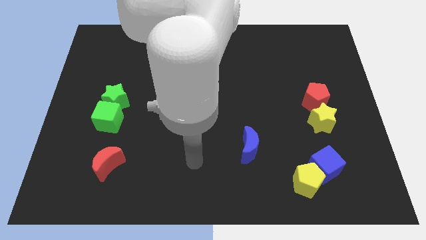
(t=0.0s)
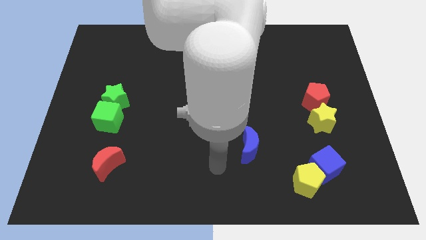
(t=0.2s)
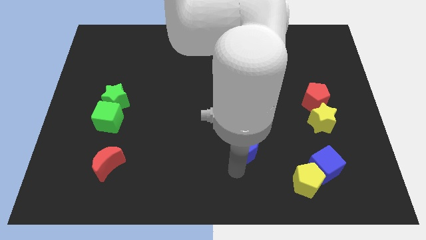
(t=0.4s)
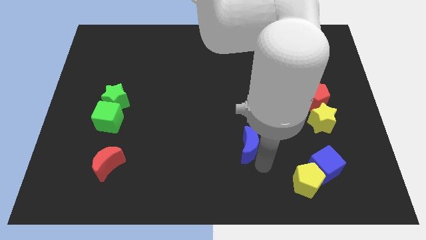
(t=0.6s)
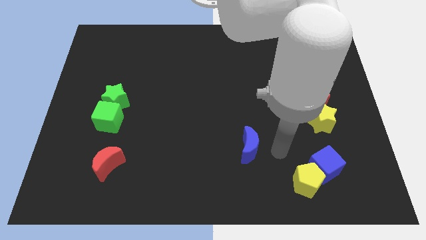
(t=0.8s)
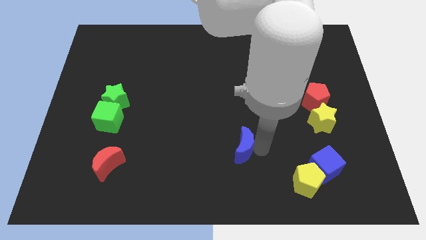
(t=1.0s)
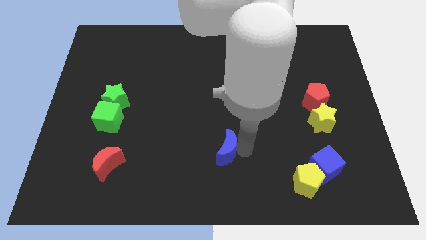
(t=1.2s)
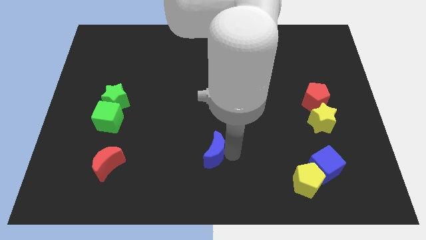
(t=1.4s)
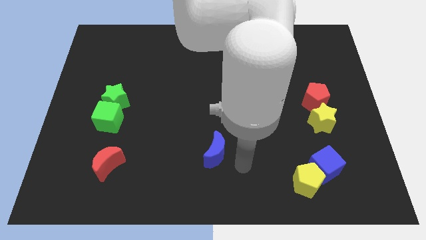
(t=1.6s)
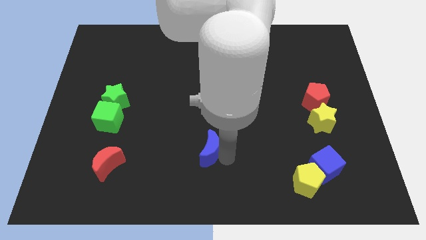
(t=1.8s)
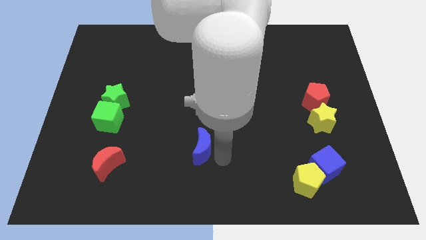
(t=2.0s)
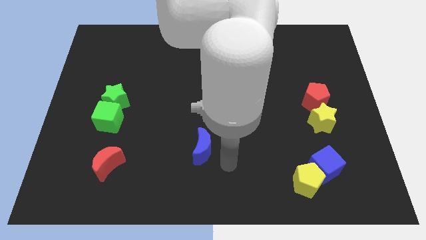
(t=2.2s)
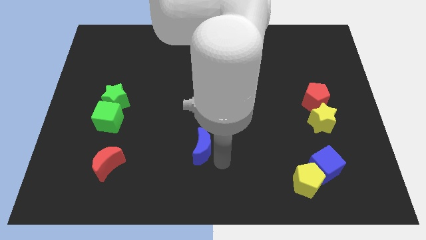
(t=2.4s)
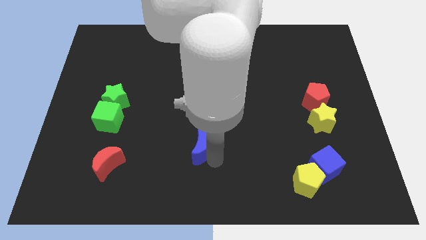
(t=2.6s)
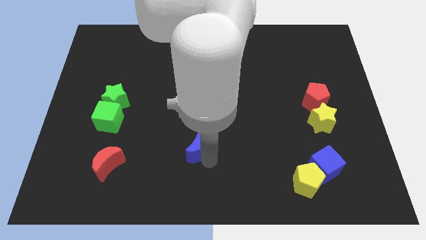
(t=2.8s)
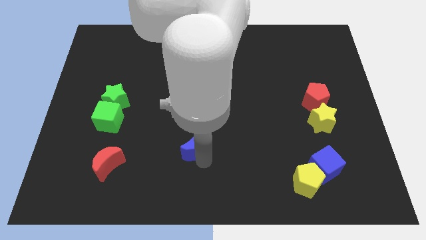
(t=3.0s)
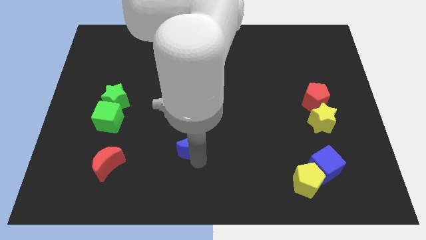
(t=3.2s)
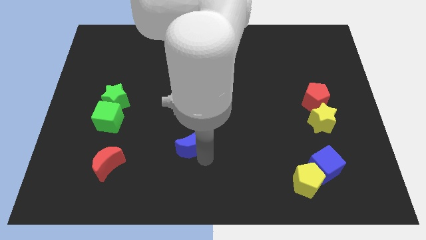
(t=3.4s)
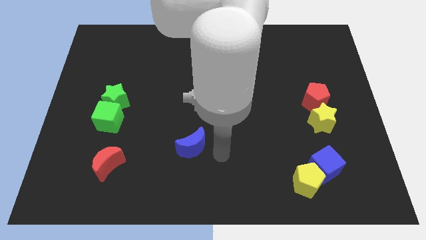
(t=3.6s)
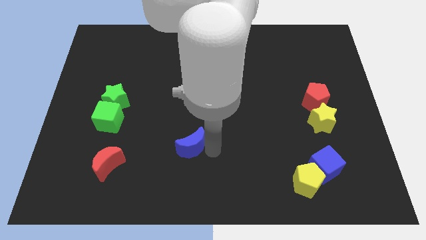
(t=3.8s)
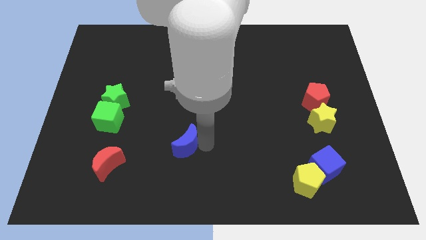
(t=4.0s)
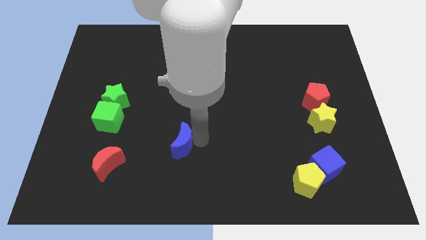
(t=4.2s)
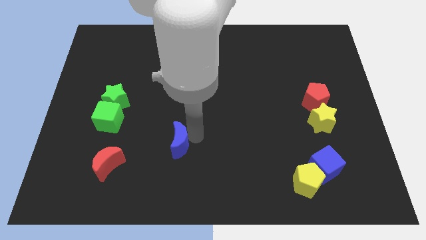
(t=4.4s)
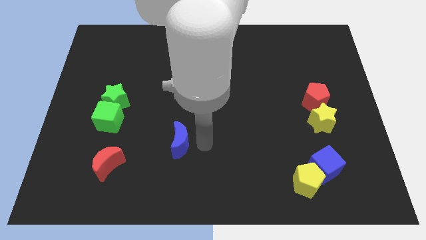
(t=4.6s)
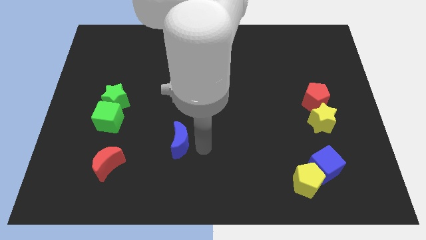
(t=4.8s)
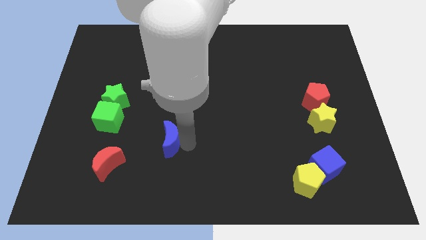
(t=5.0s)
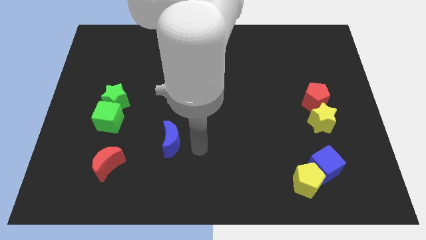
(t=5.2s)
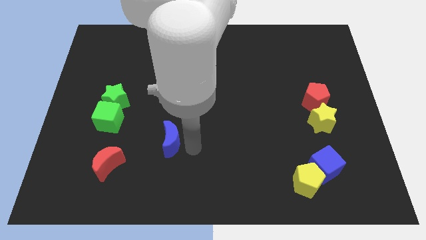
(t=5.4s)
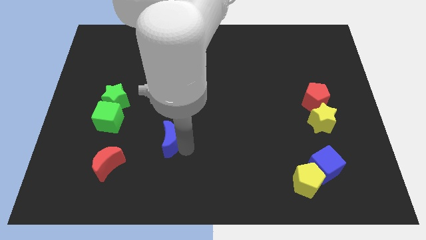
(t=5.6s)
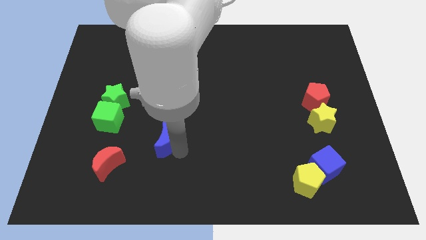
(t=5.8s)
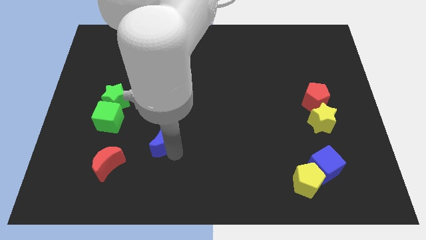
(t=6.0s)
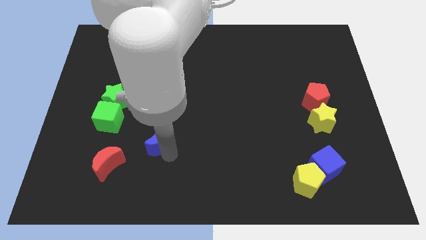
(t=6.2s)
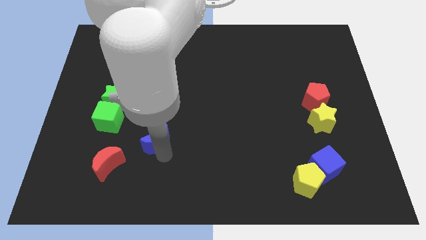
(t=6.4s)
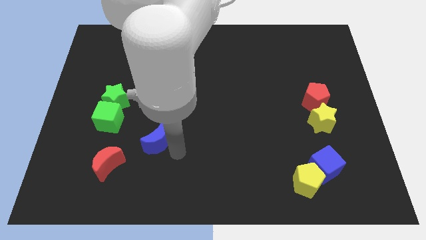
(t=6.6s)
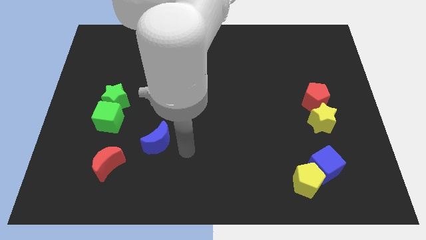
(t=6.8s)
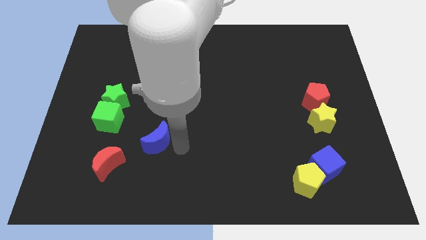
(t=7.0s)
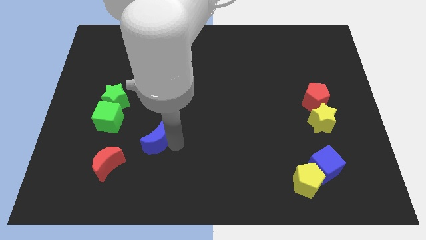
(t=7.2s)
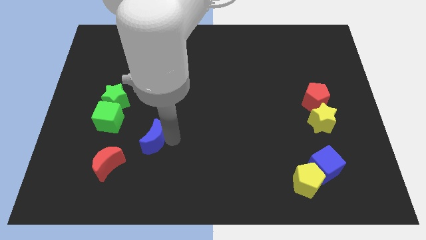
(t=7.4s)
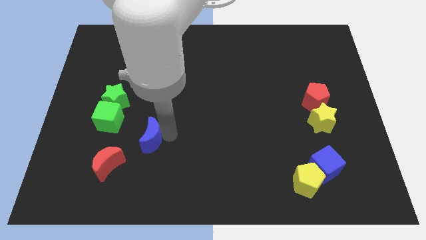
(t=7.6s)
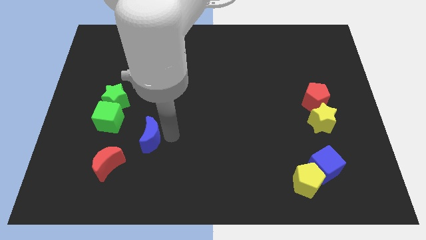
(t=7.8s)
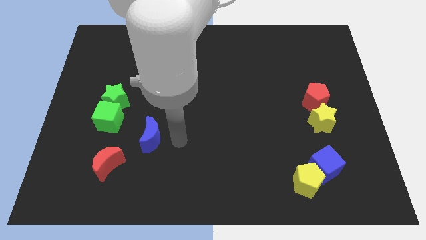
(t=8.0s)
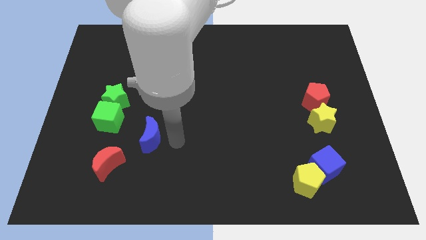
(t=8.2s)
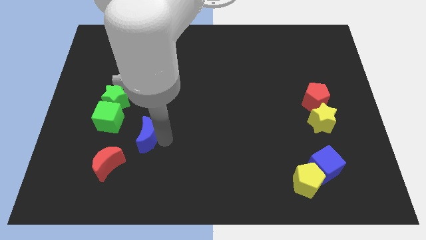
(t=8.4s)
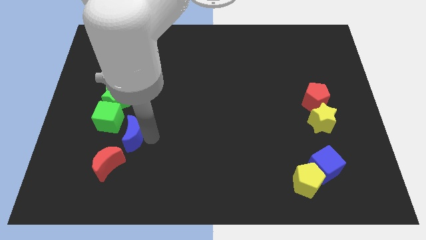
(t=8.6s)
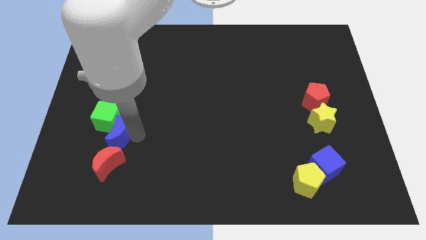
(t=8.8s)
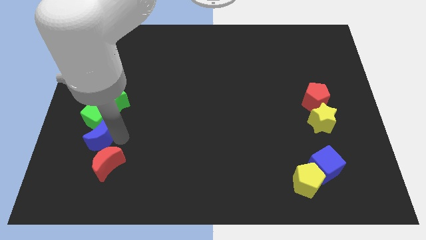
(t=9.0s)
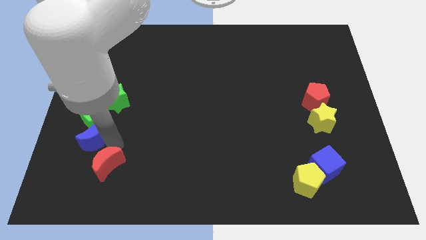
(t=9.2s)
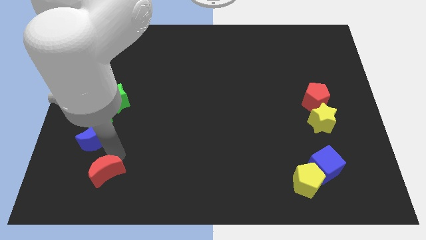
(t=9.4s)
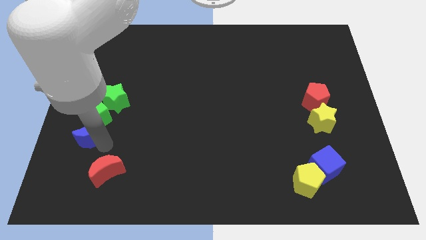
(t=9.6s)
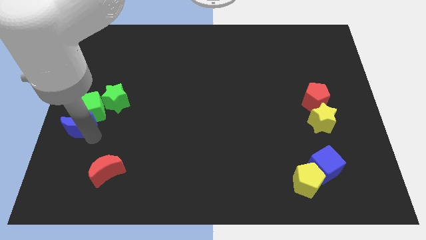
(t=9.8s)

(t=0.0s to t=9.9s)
put the blue moon to the center left

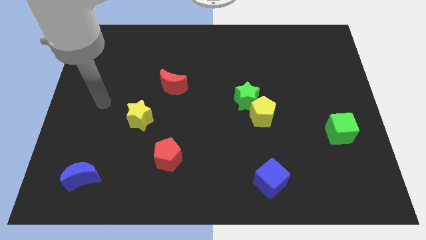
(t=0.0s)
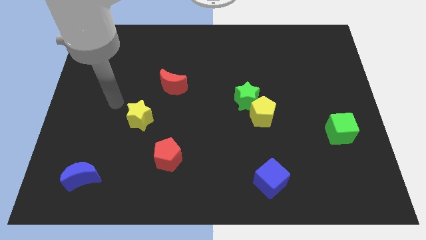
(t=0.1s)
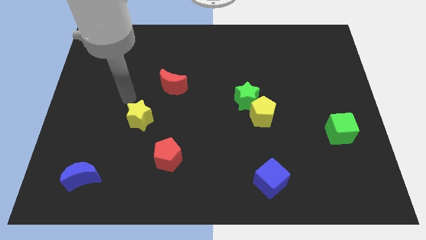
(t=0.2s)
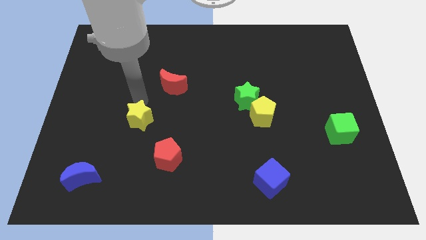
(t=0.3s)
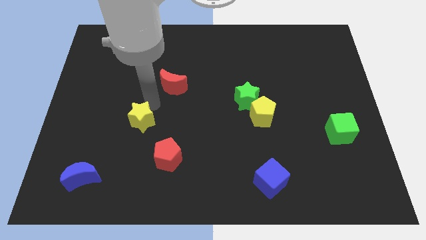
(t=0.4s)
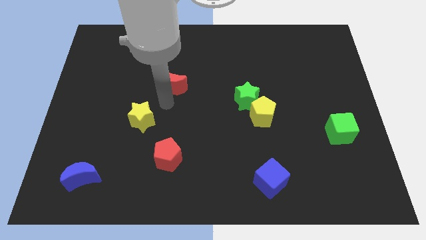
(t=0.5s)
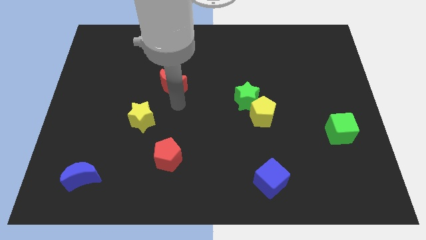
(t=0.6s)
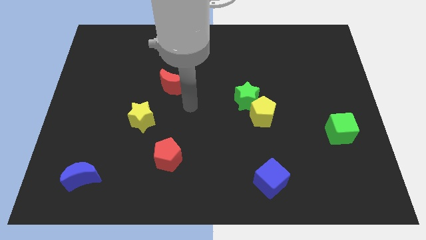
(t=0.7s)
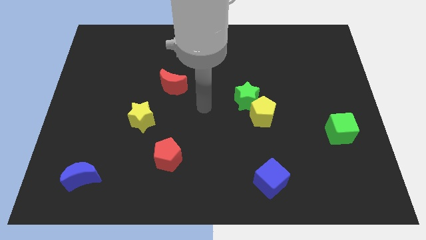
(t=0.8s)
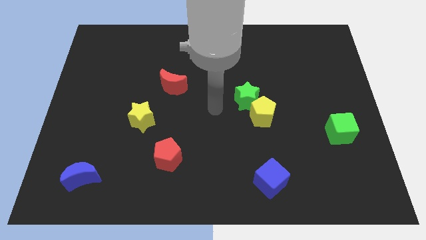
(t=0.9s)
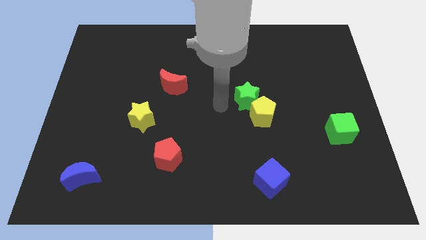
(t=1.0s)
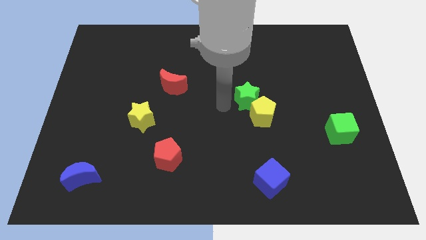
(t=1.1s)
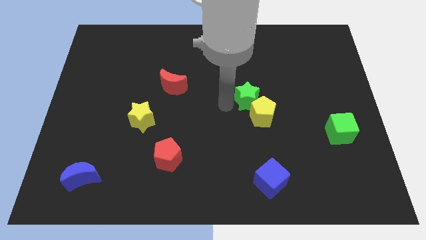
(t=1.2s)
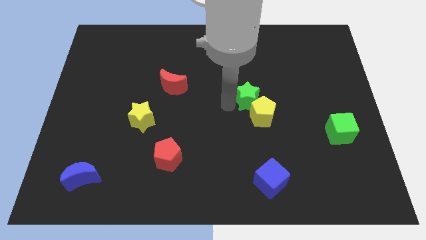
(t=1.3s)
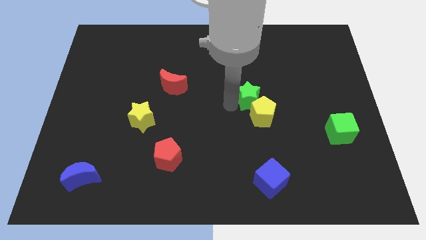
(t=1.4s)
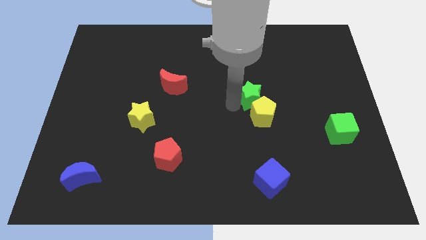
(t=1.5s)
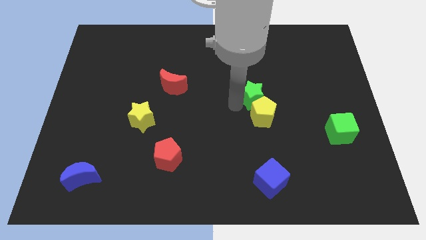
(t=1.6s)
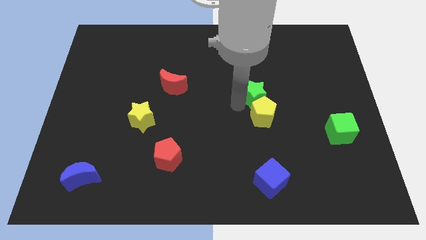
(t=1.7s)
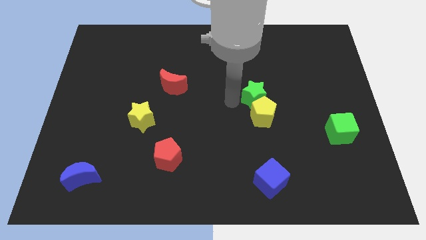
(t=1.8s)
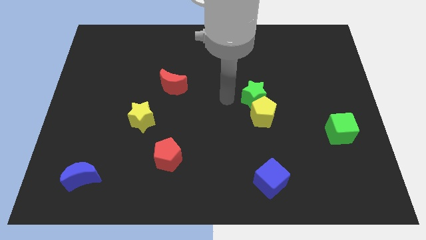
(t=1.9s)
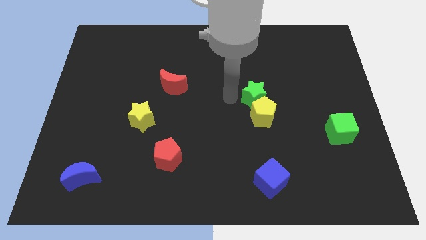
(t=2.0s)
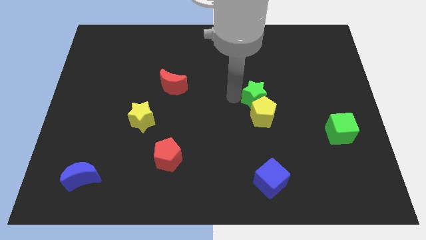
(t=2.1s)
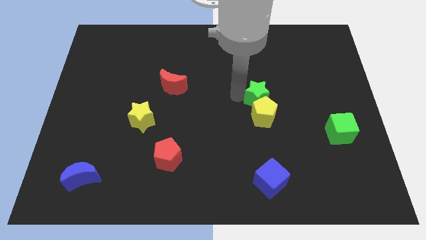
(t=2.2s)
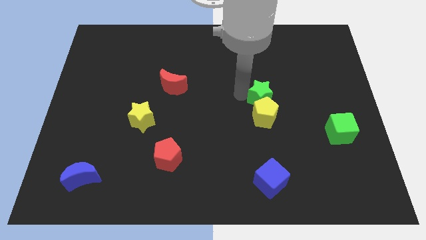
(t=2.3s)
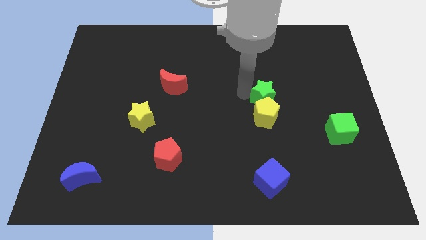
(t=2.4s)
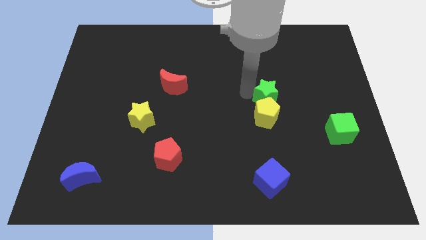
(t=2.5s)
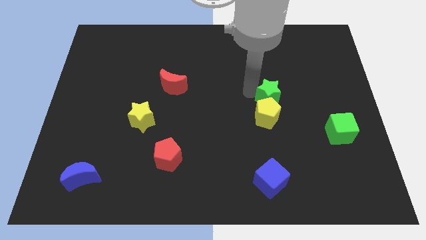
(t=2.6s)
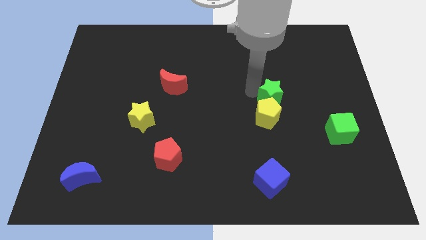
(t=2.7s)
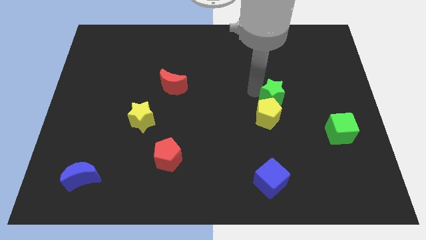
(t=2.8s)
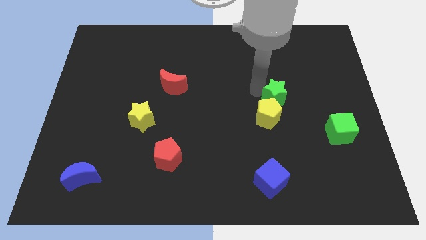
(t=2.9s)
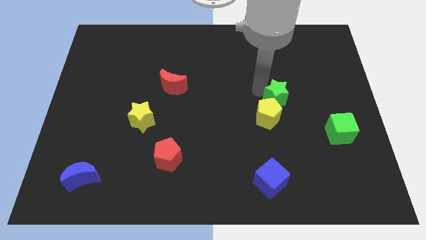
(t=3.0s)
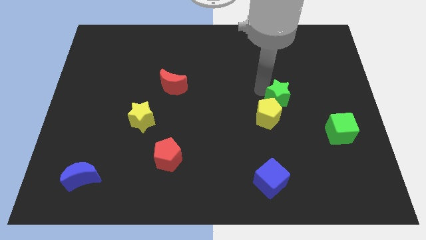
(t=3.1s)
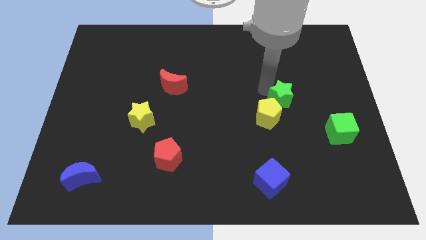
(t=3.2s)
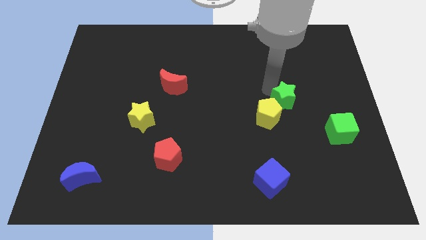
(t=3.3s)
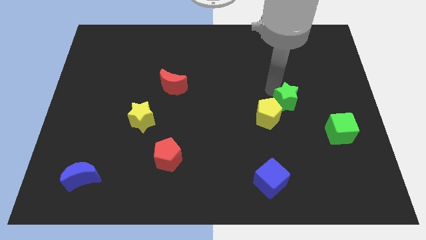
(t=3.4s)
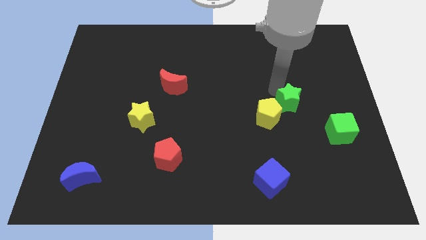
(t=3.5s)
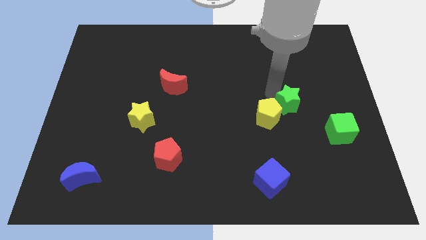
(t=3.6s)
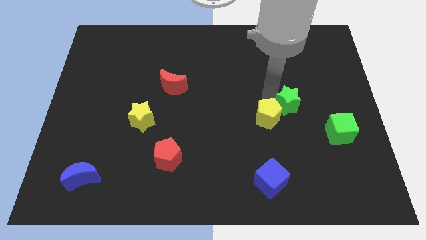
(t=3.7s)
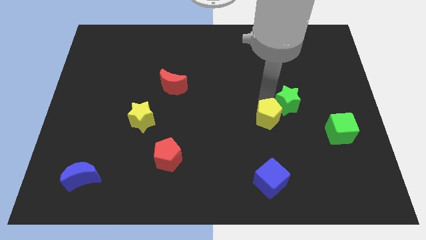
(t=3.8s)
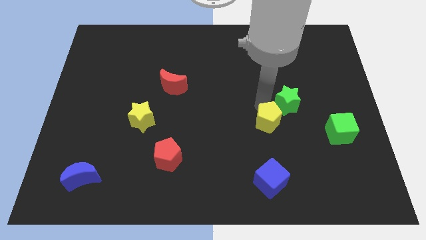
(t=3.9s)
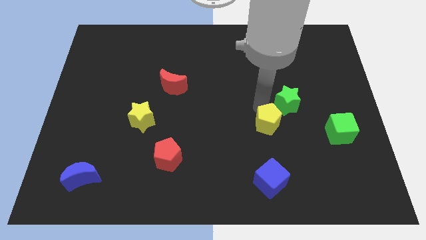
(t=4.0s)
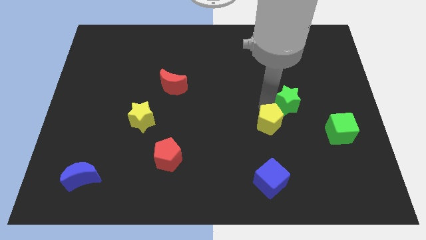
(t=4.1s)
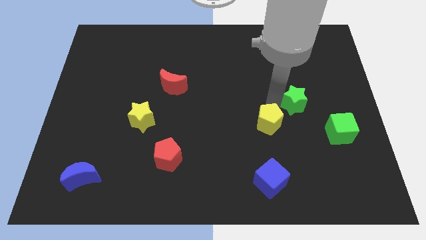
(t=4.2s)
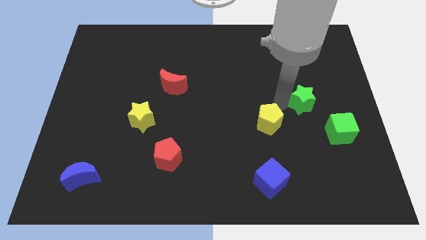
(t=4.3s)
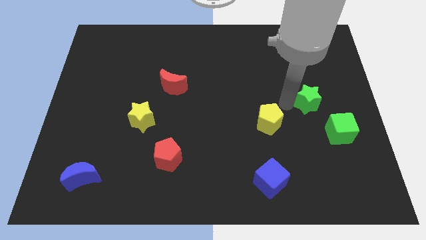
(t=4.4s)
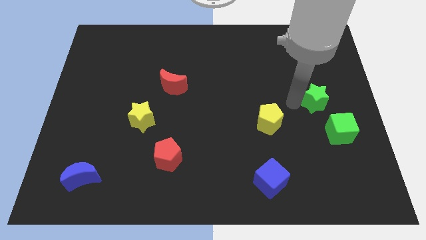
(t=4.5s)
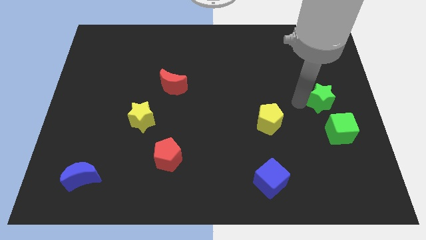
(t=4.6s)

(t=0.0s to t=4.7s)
slide the green star to the right side of the board
